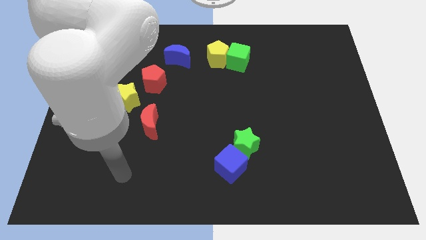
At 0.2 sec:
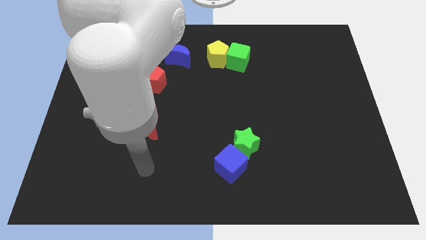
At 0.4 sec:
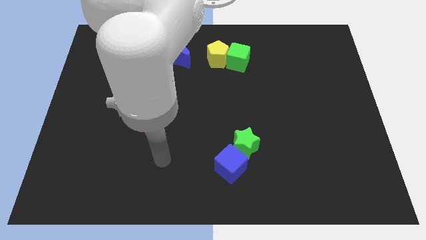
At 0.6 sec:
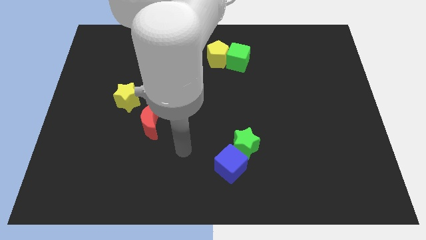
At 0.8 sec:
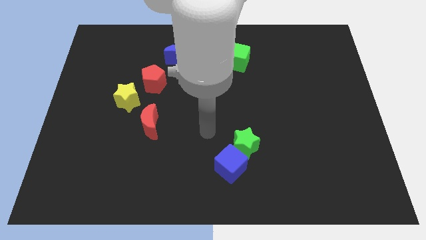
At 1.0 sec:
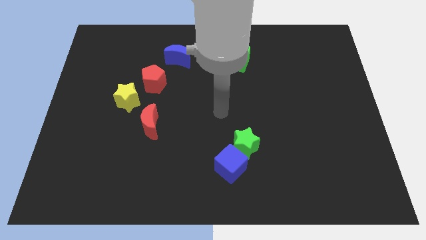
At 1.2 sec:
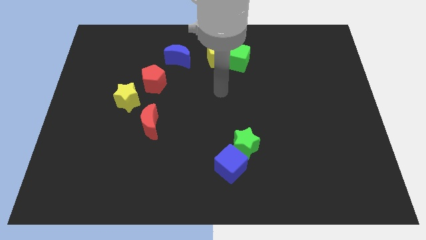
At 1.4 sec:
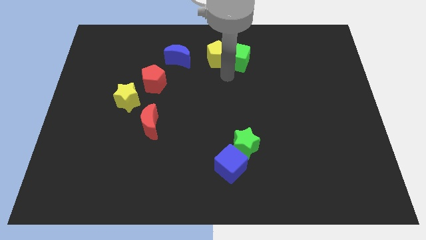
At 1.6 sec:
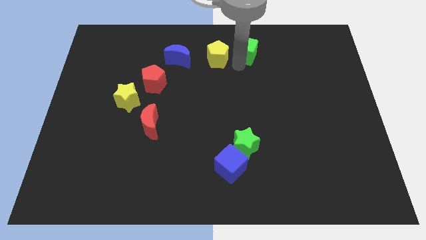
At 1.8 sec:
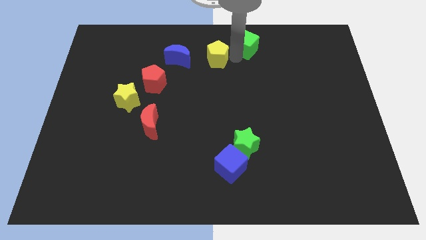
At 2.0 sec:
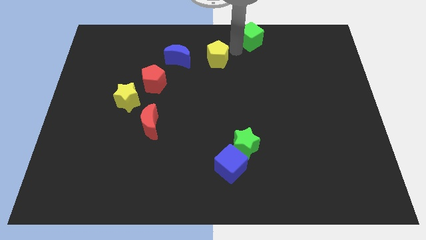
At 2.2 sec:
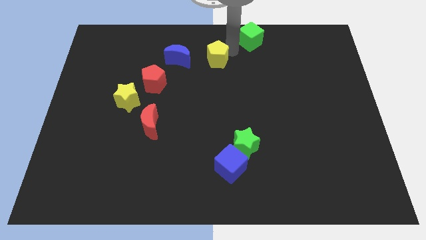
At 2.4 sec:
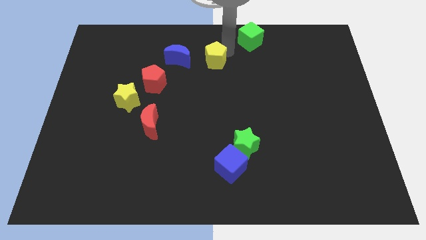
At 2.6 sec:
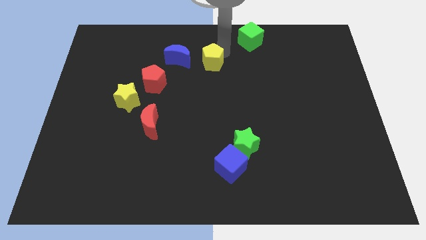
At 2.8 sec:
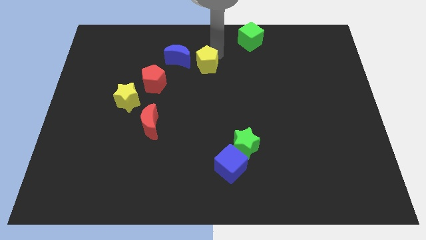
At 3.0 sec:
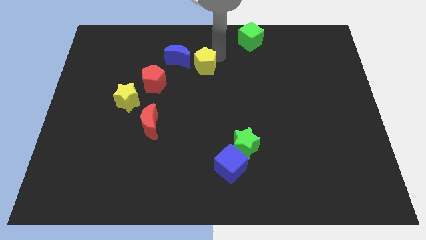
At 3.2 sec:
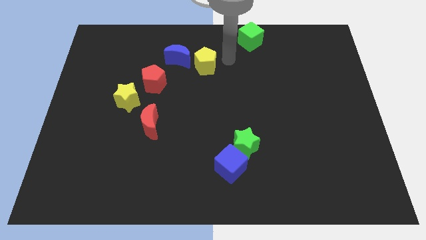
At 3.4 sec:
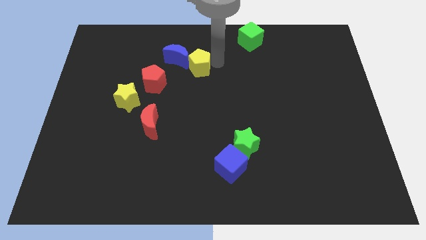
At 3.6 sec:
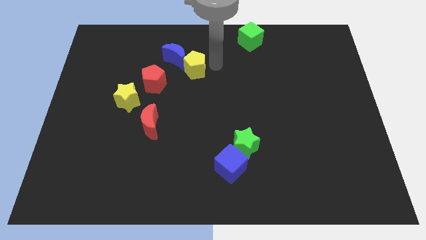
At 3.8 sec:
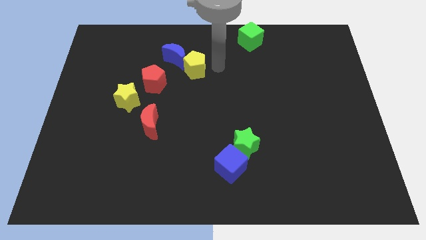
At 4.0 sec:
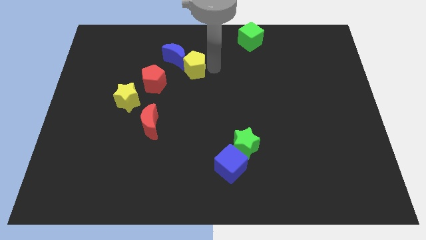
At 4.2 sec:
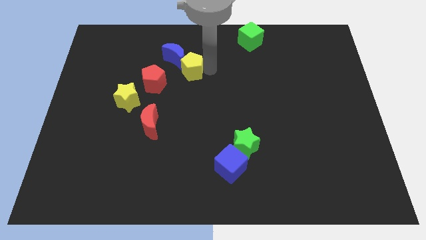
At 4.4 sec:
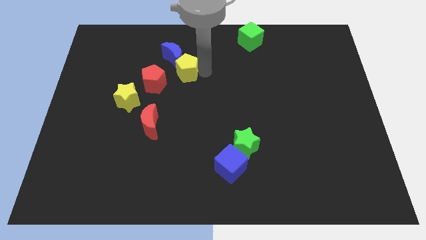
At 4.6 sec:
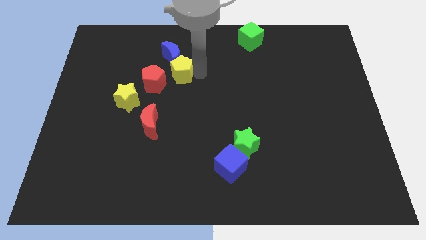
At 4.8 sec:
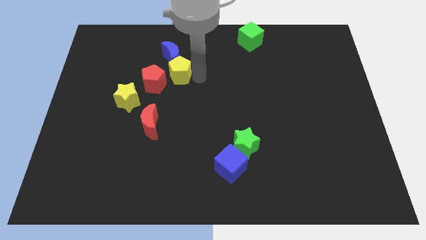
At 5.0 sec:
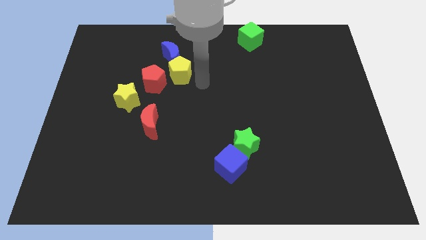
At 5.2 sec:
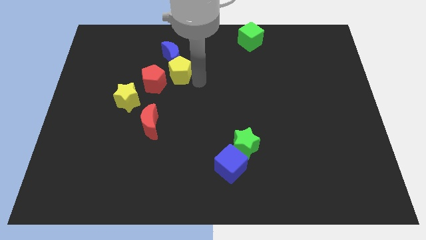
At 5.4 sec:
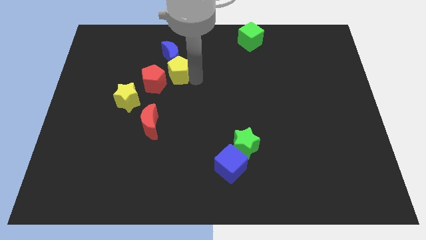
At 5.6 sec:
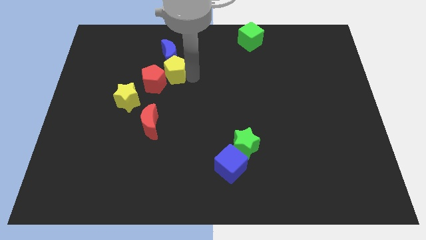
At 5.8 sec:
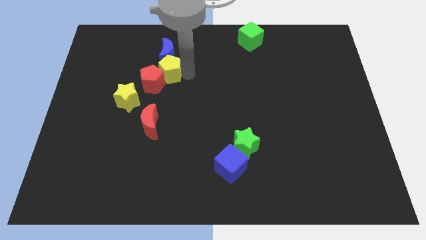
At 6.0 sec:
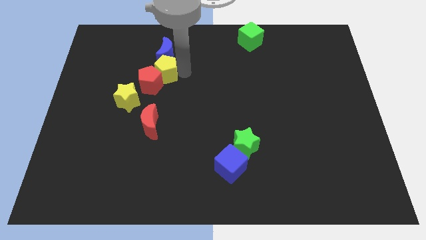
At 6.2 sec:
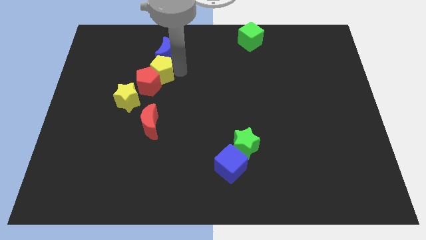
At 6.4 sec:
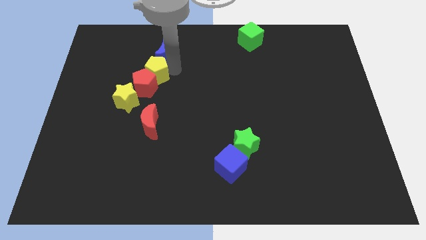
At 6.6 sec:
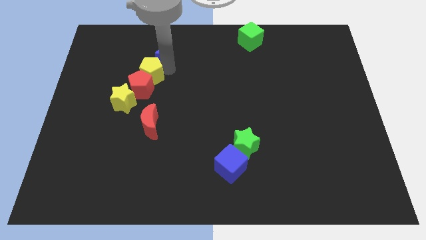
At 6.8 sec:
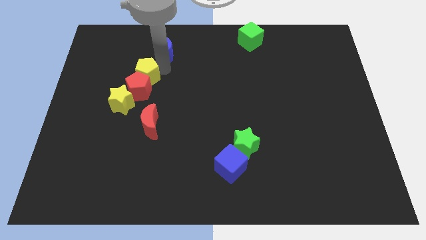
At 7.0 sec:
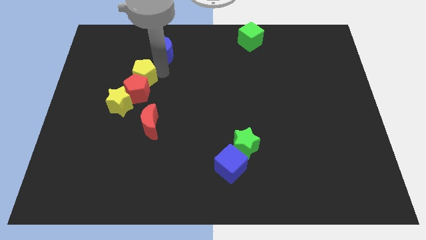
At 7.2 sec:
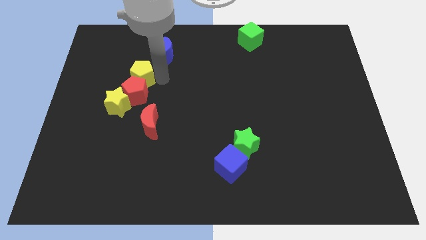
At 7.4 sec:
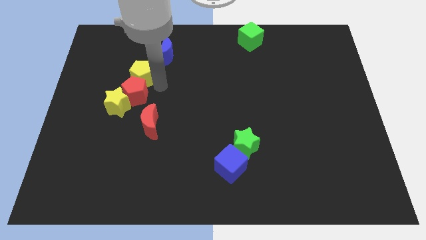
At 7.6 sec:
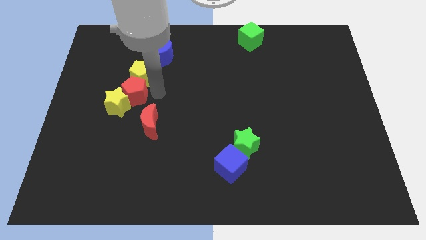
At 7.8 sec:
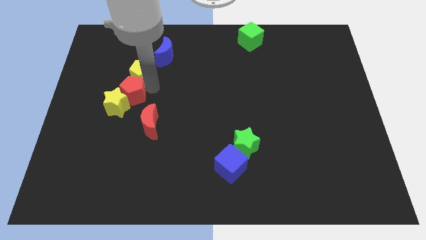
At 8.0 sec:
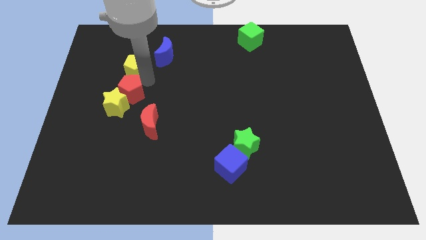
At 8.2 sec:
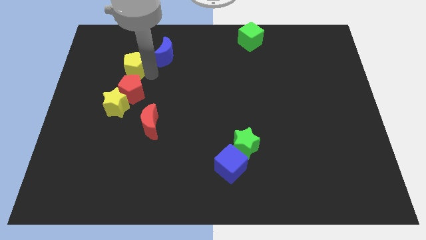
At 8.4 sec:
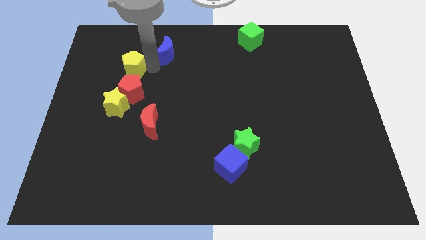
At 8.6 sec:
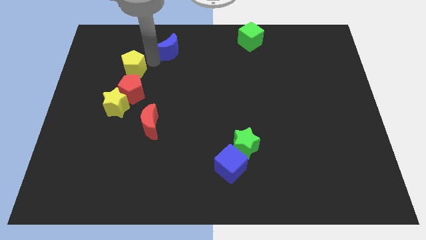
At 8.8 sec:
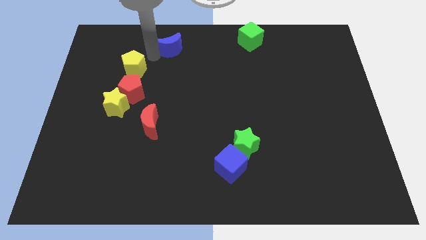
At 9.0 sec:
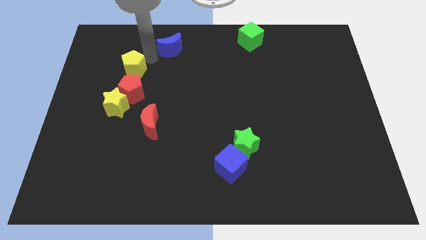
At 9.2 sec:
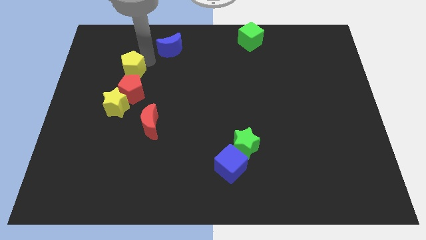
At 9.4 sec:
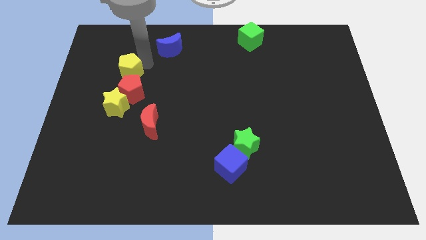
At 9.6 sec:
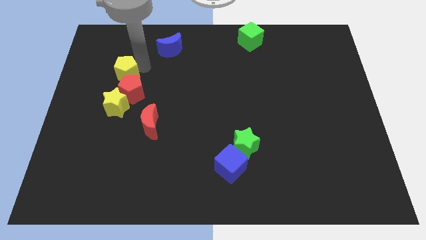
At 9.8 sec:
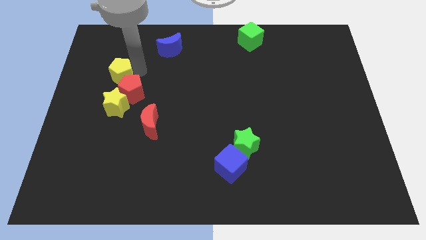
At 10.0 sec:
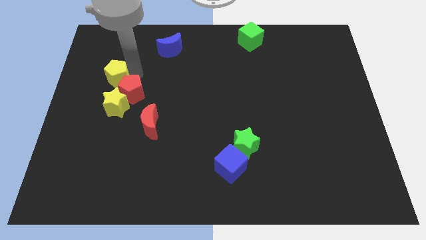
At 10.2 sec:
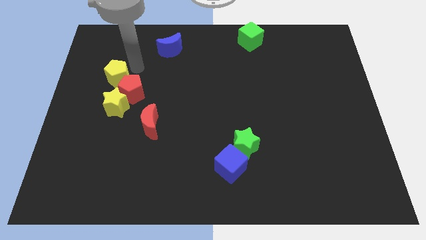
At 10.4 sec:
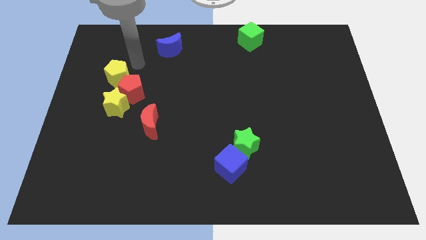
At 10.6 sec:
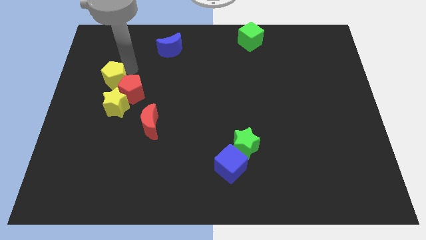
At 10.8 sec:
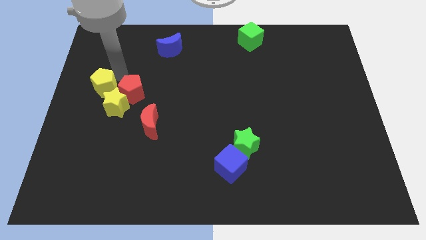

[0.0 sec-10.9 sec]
move the yellow pentagon to the left side
